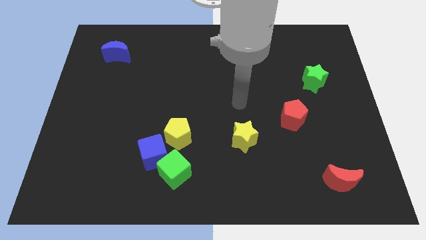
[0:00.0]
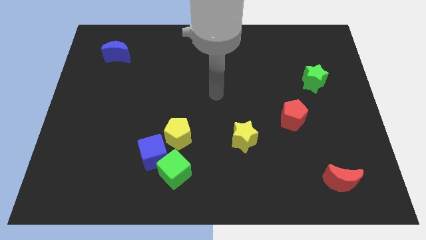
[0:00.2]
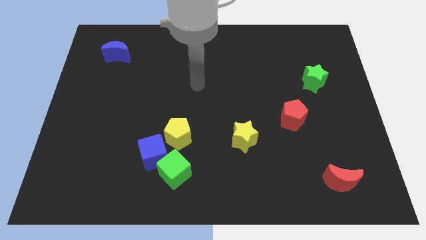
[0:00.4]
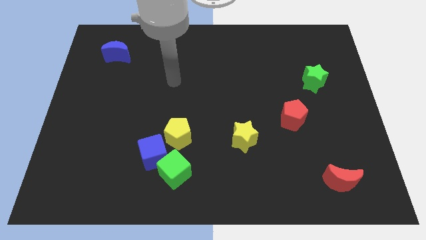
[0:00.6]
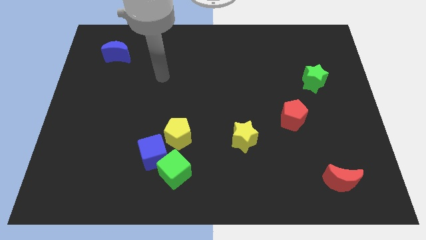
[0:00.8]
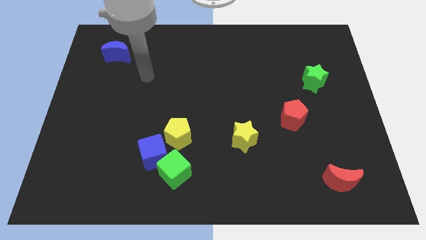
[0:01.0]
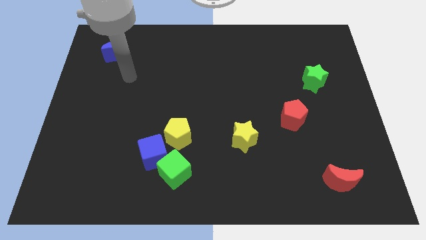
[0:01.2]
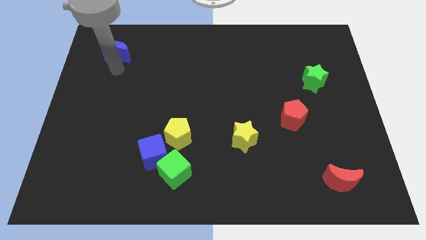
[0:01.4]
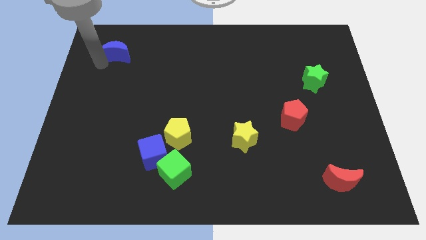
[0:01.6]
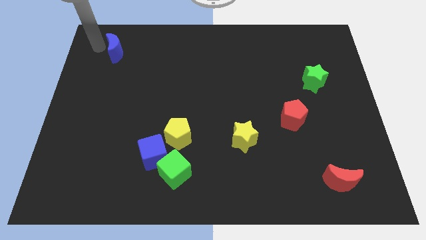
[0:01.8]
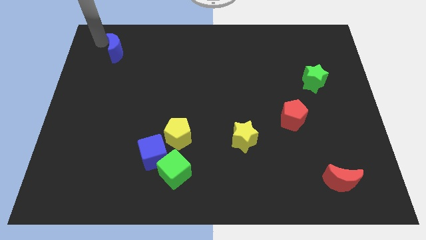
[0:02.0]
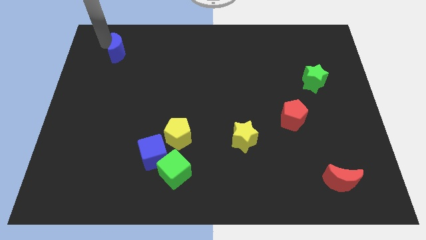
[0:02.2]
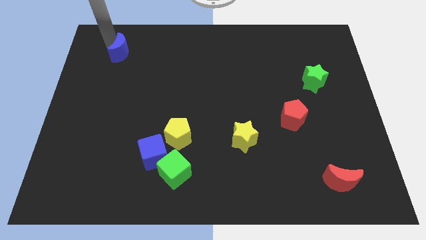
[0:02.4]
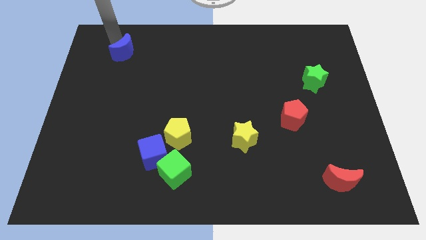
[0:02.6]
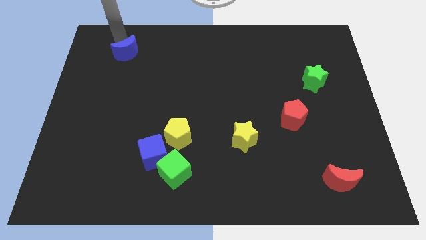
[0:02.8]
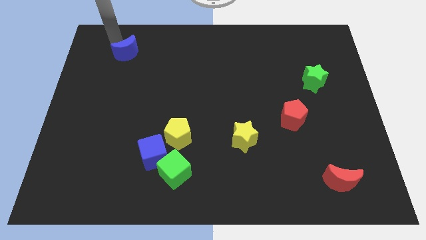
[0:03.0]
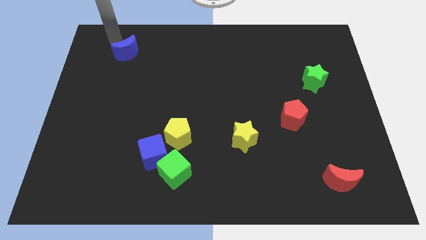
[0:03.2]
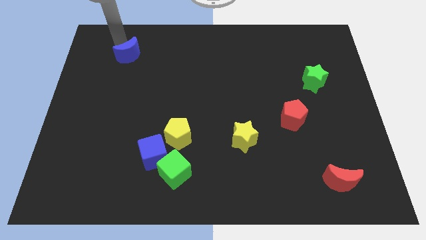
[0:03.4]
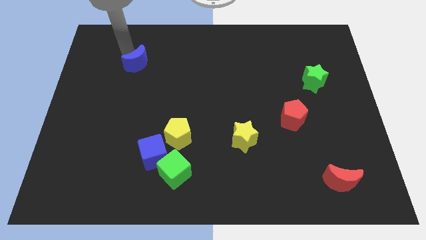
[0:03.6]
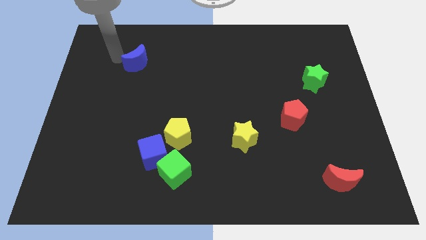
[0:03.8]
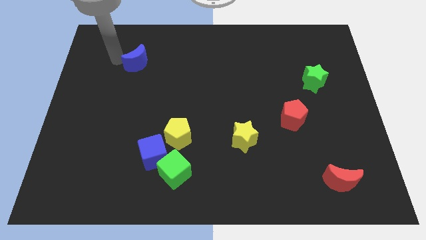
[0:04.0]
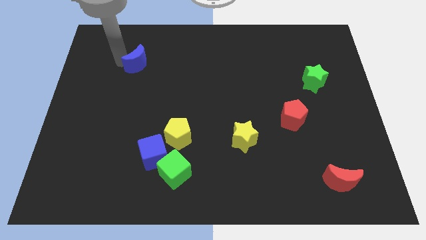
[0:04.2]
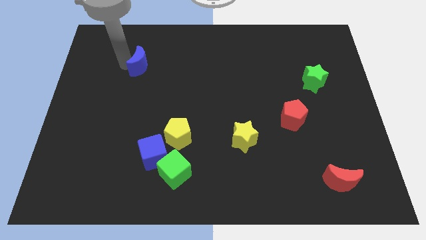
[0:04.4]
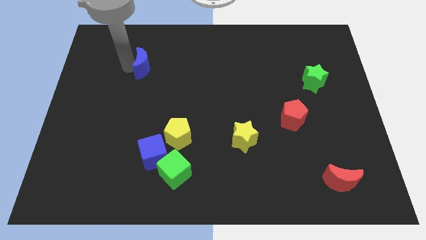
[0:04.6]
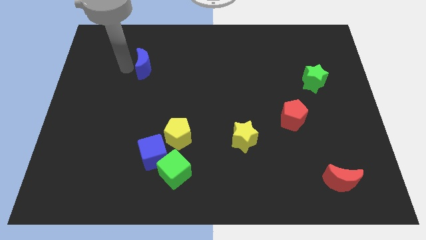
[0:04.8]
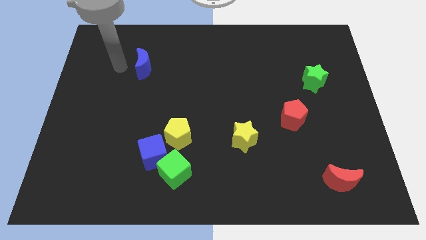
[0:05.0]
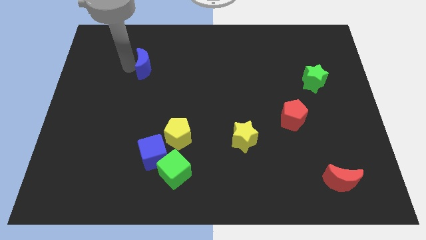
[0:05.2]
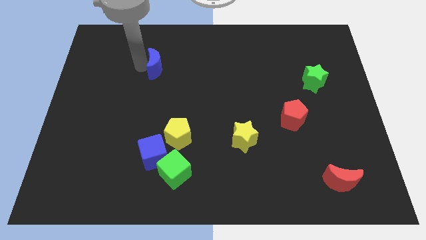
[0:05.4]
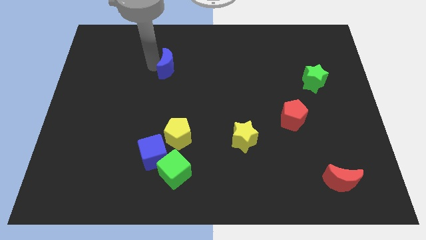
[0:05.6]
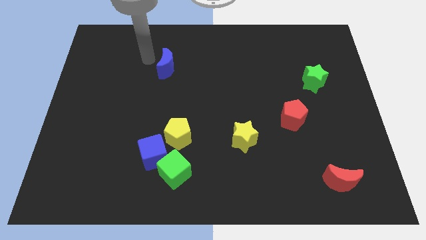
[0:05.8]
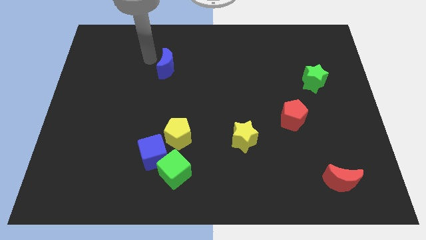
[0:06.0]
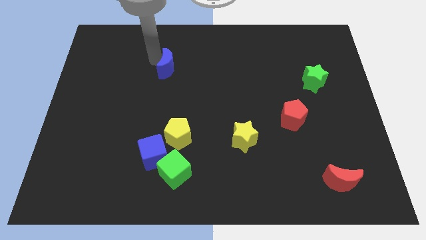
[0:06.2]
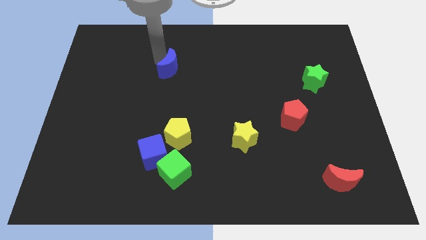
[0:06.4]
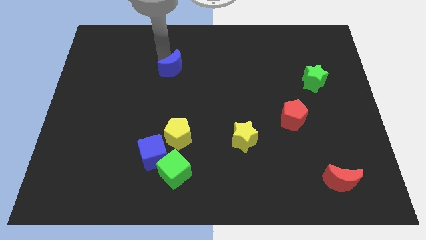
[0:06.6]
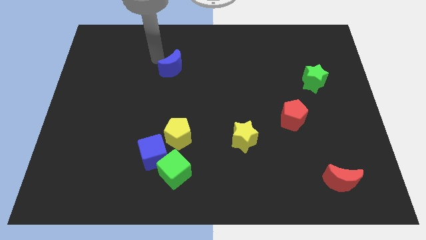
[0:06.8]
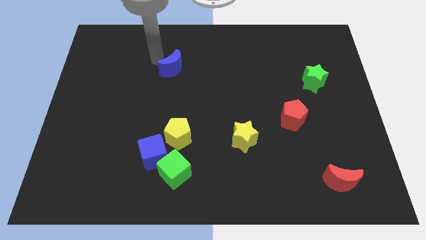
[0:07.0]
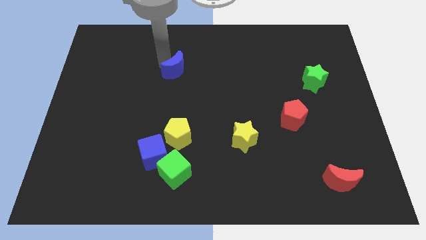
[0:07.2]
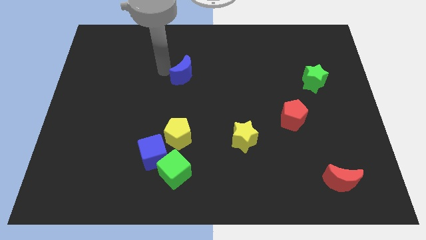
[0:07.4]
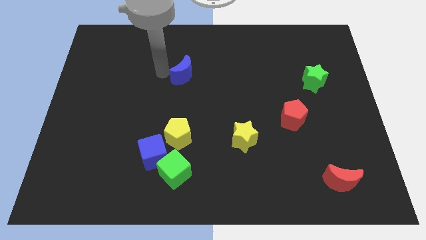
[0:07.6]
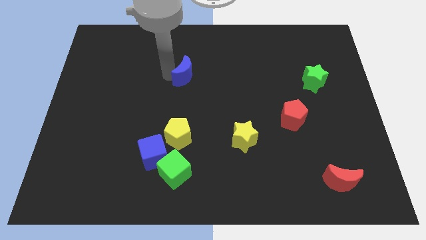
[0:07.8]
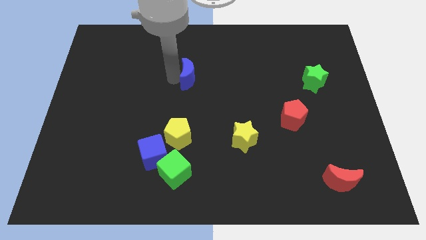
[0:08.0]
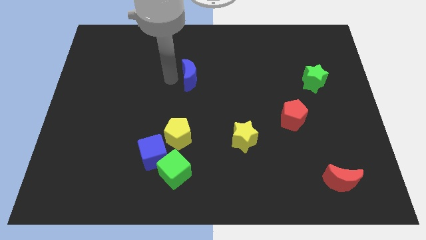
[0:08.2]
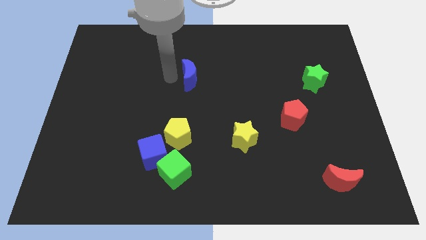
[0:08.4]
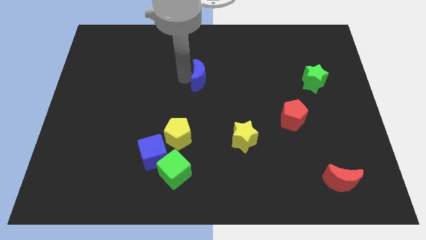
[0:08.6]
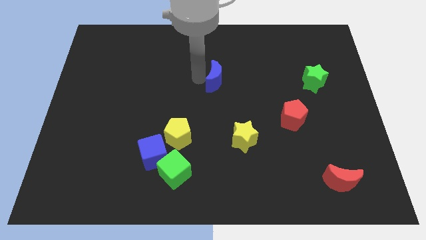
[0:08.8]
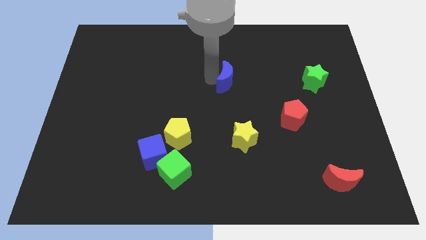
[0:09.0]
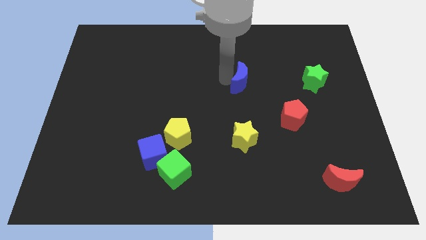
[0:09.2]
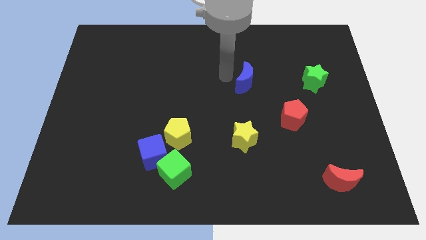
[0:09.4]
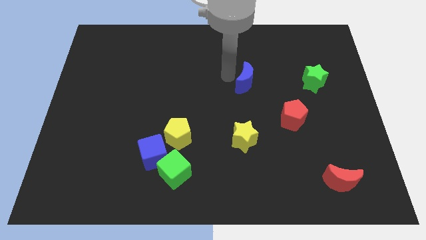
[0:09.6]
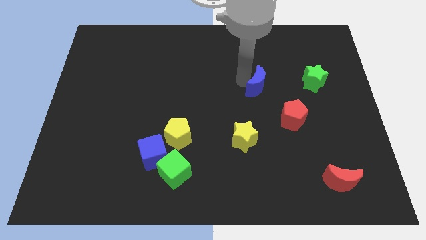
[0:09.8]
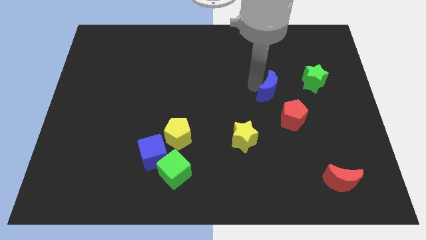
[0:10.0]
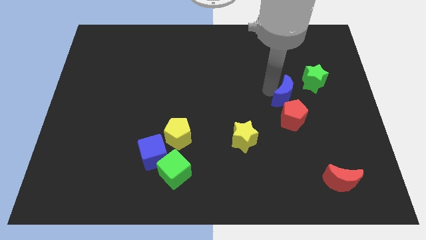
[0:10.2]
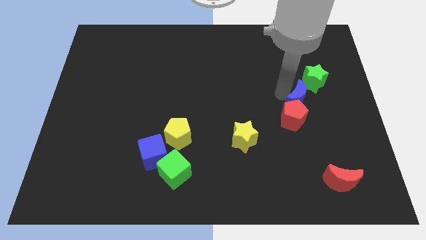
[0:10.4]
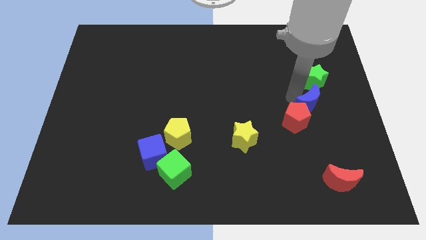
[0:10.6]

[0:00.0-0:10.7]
move the blue moon just right of the red pentagon

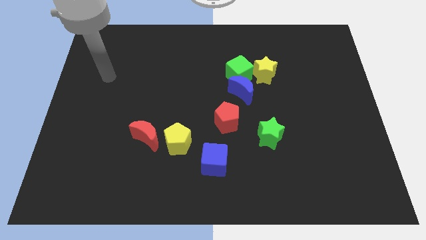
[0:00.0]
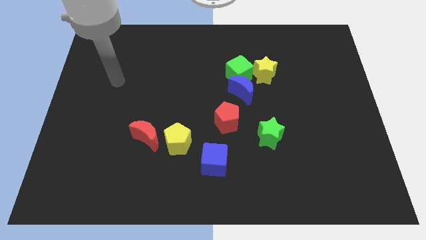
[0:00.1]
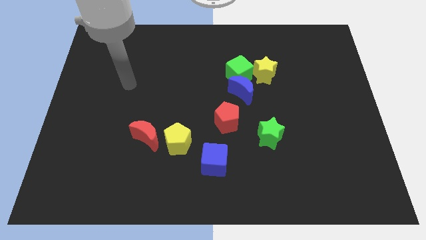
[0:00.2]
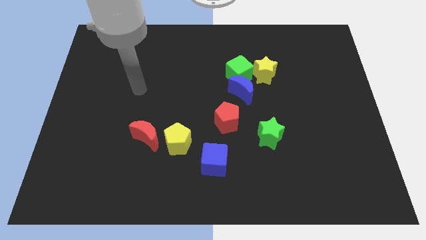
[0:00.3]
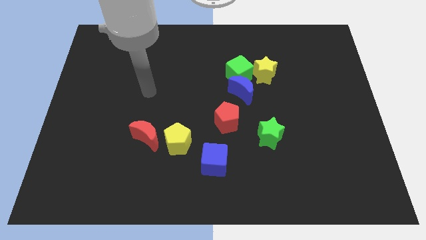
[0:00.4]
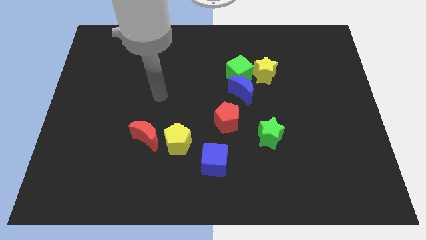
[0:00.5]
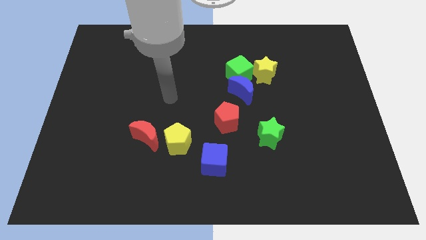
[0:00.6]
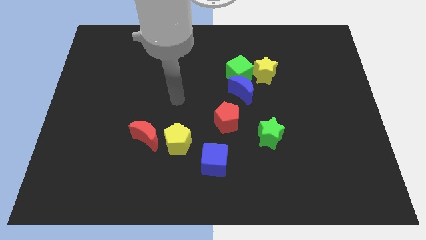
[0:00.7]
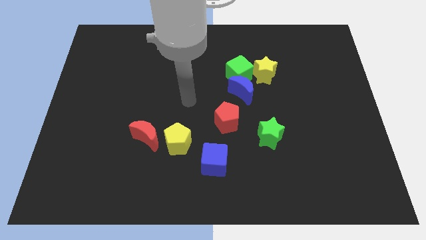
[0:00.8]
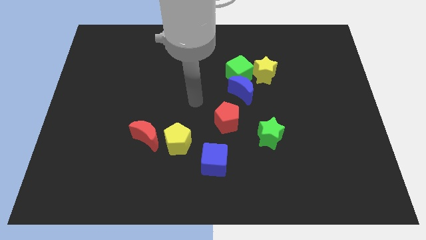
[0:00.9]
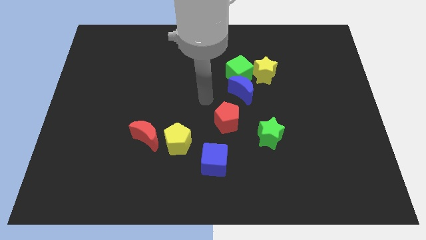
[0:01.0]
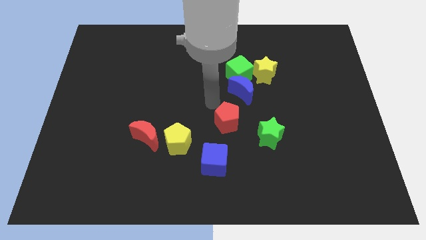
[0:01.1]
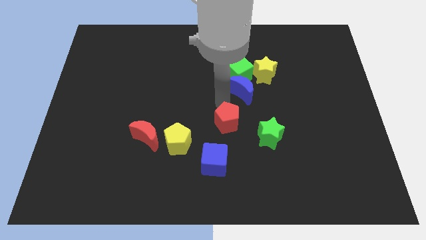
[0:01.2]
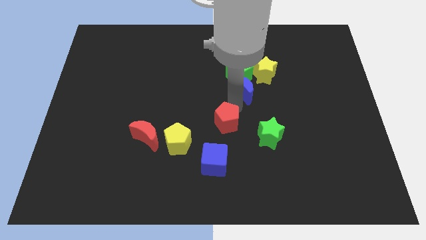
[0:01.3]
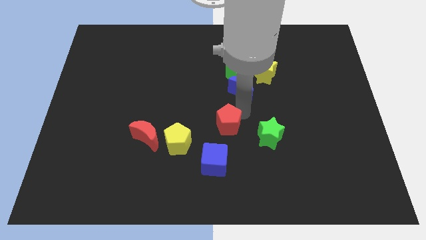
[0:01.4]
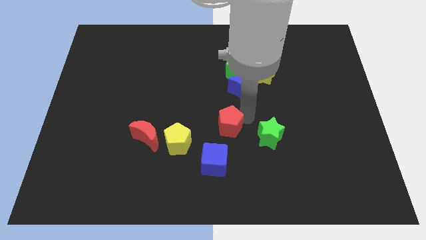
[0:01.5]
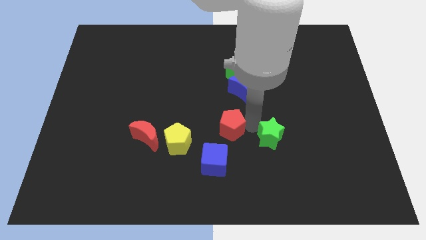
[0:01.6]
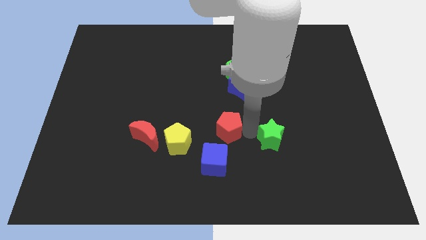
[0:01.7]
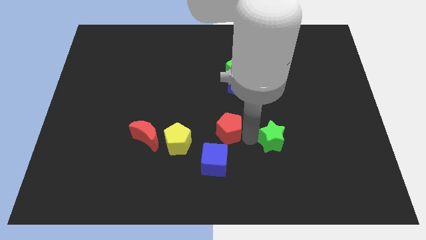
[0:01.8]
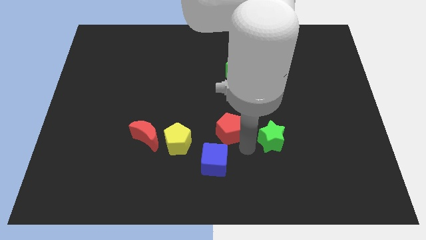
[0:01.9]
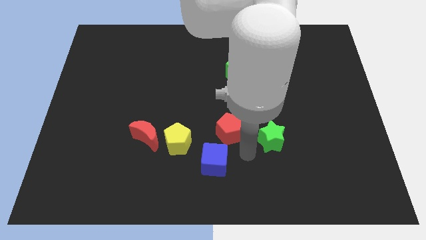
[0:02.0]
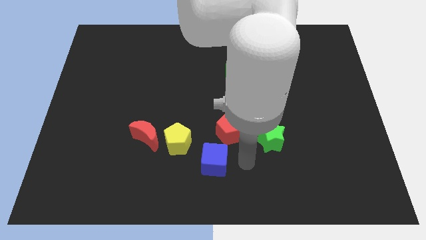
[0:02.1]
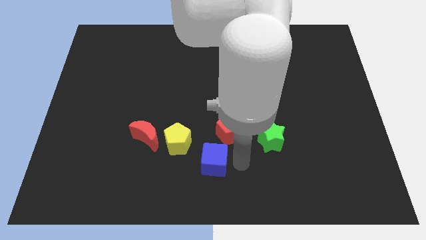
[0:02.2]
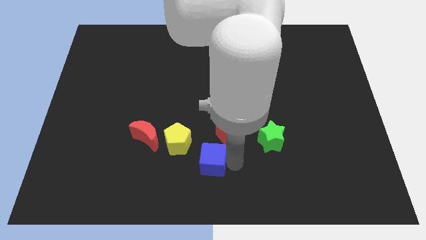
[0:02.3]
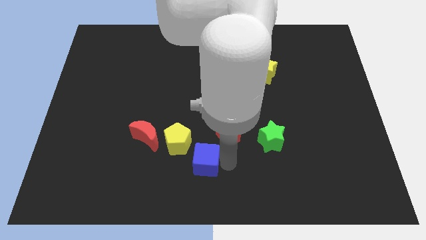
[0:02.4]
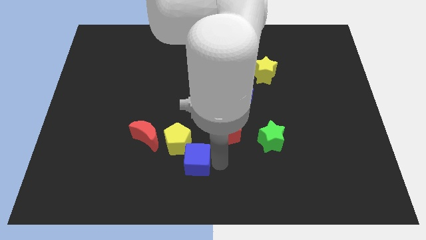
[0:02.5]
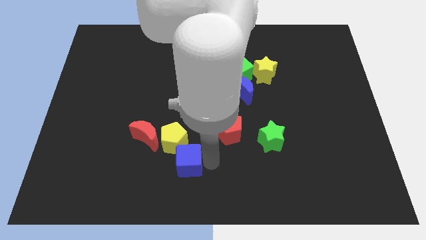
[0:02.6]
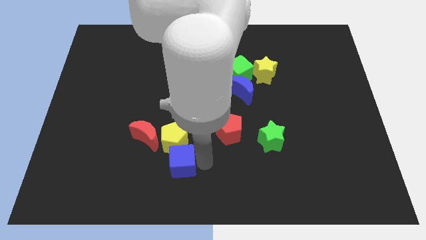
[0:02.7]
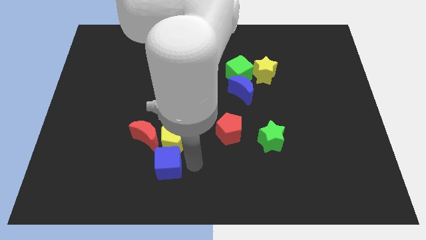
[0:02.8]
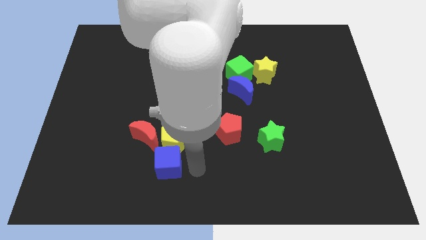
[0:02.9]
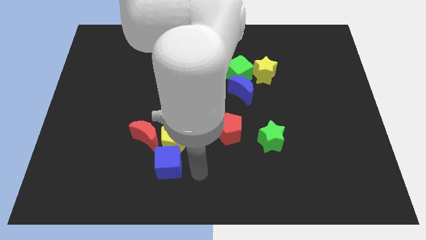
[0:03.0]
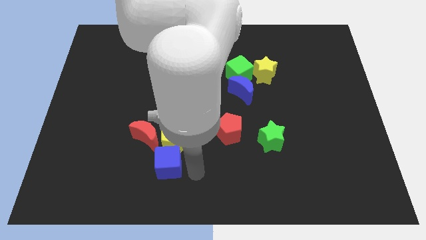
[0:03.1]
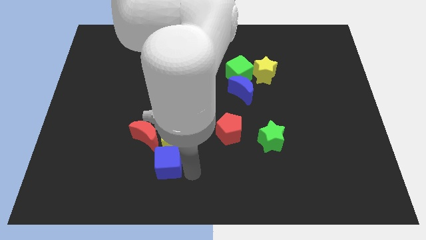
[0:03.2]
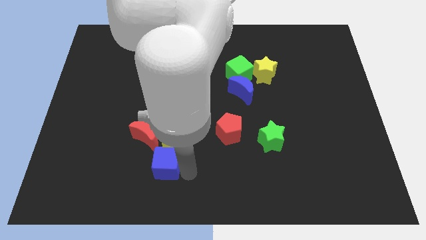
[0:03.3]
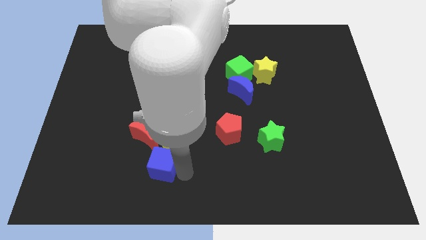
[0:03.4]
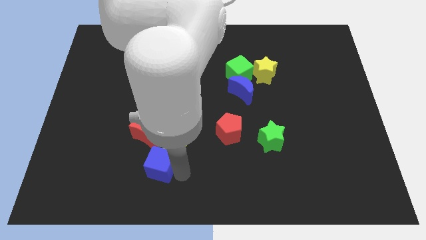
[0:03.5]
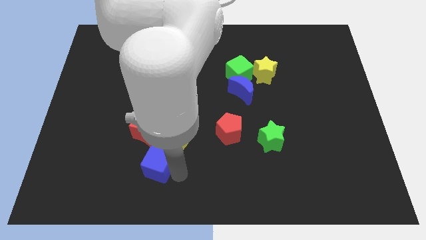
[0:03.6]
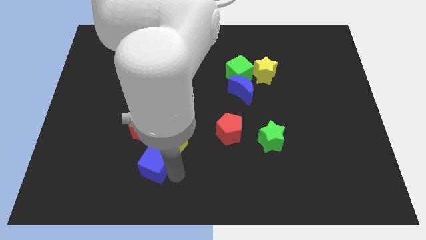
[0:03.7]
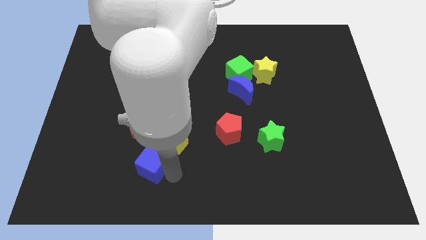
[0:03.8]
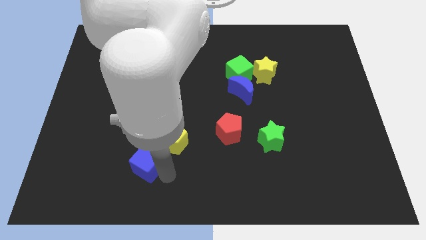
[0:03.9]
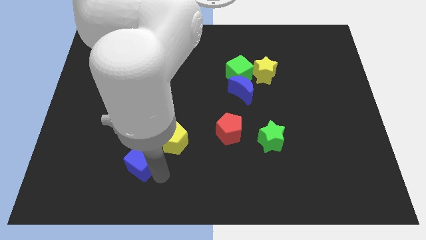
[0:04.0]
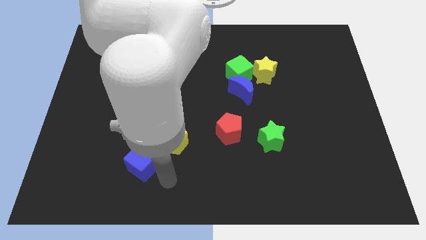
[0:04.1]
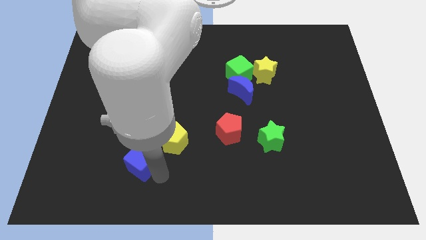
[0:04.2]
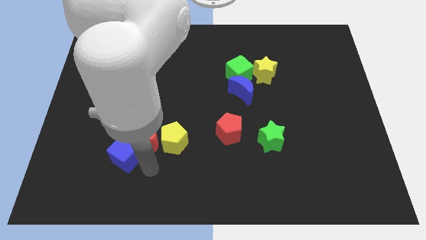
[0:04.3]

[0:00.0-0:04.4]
push the blue cube to the left side of the red moon
